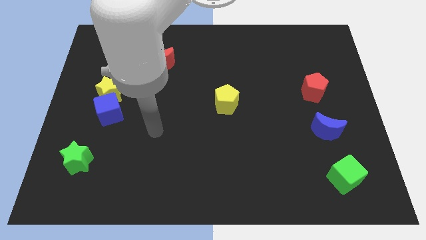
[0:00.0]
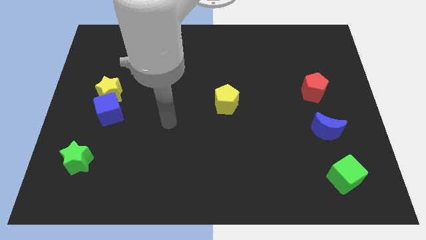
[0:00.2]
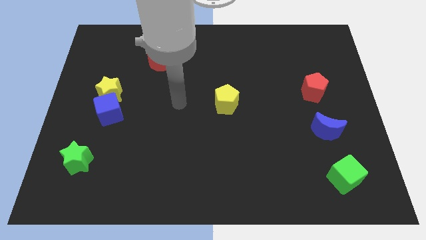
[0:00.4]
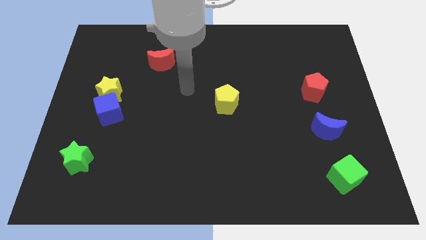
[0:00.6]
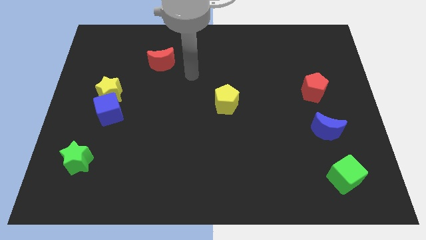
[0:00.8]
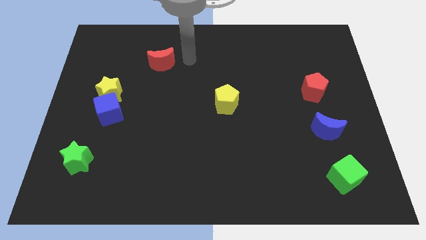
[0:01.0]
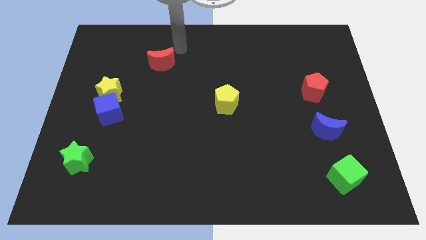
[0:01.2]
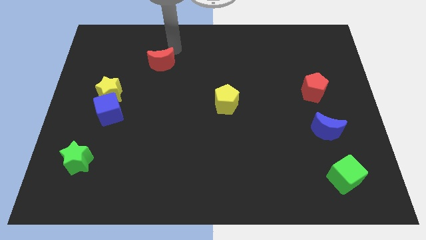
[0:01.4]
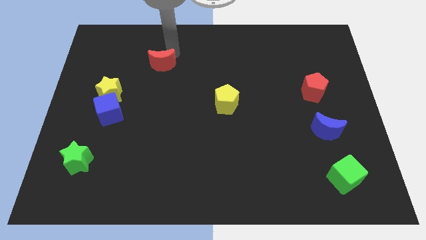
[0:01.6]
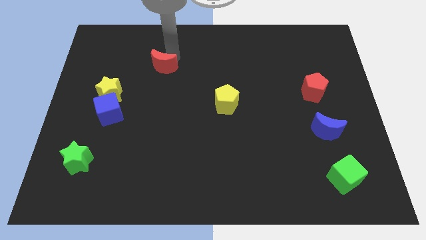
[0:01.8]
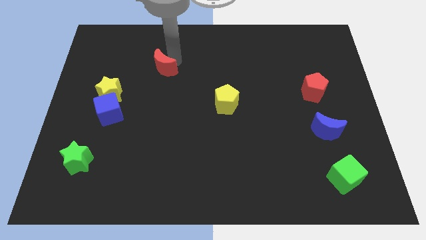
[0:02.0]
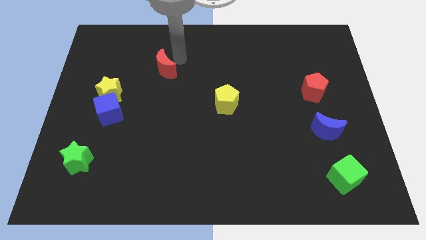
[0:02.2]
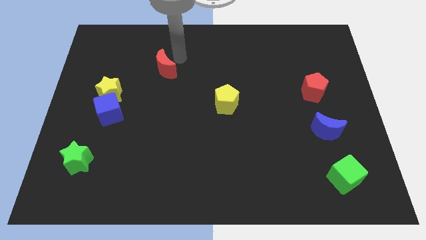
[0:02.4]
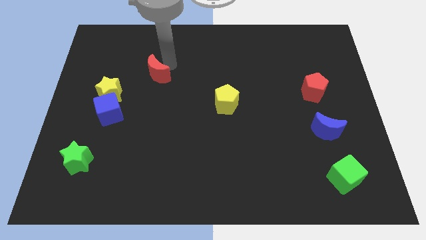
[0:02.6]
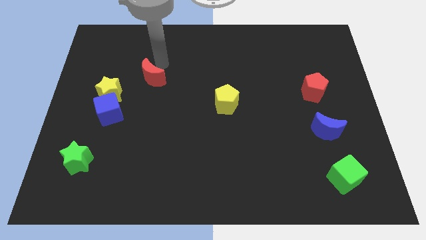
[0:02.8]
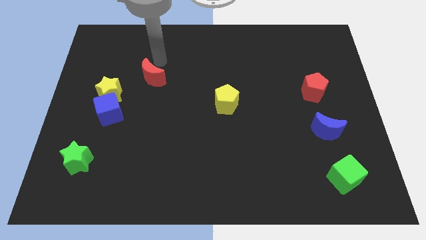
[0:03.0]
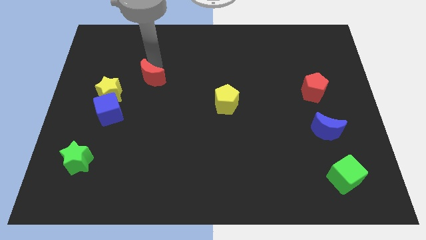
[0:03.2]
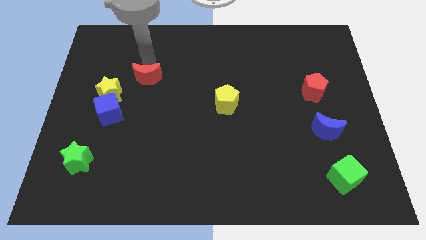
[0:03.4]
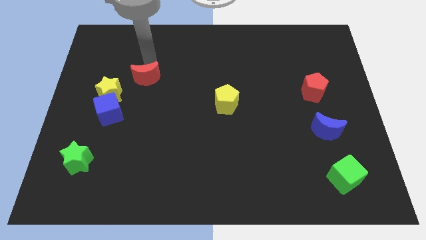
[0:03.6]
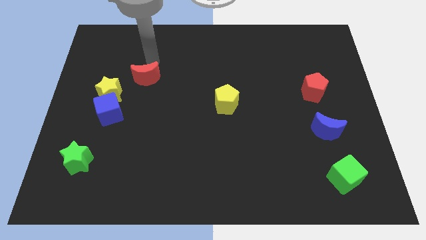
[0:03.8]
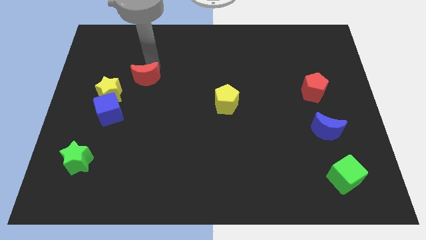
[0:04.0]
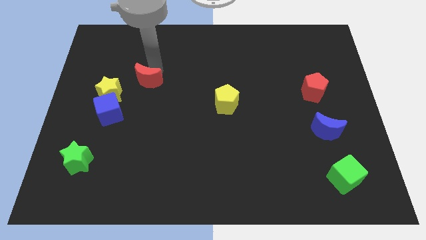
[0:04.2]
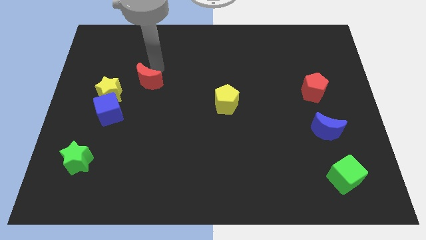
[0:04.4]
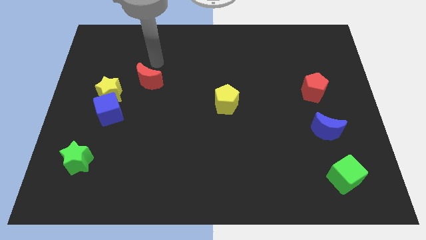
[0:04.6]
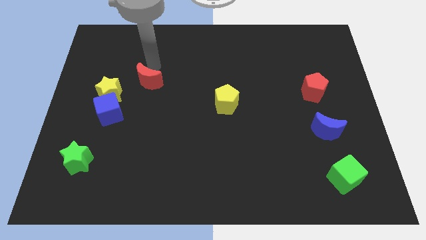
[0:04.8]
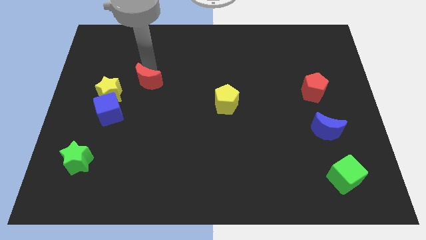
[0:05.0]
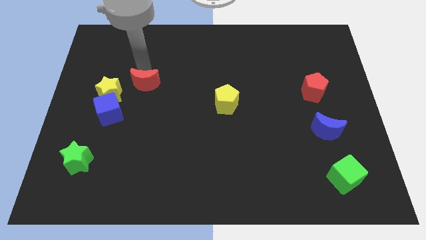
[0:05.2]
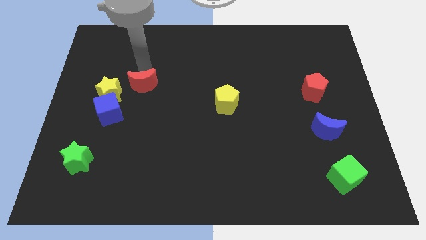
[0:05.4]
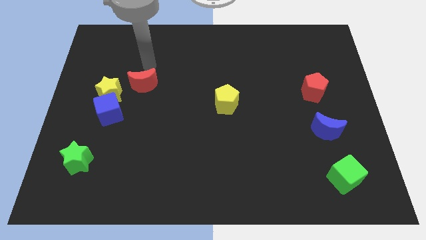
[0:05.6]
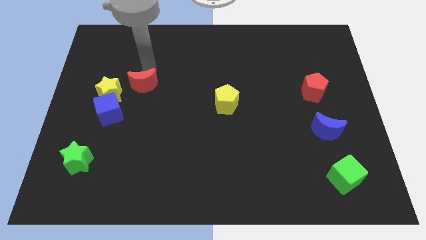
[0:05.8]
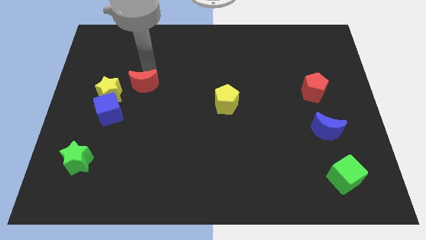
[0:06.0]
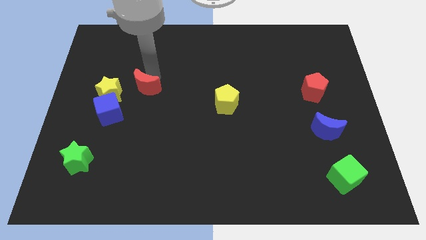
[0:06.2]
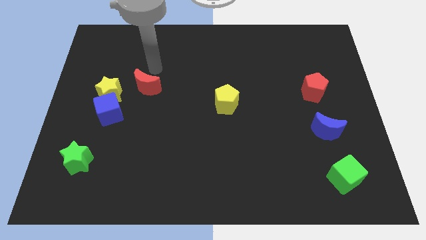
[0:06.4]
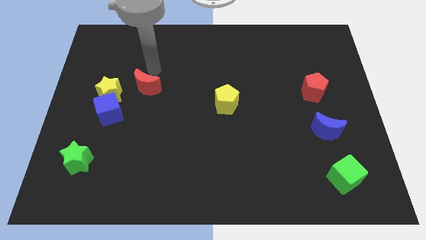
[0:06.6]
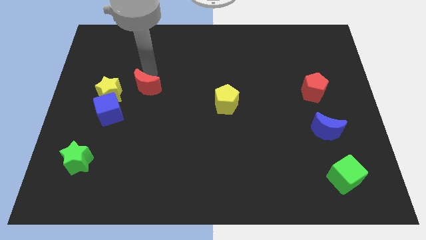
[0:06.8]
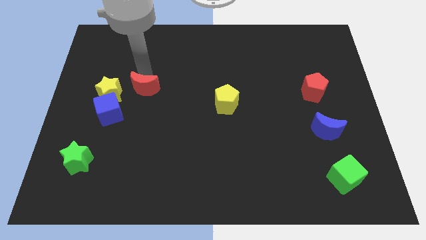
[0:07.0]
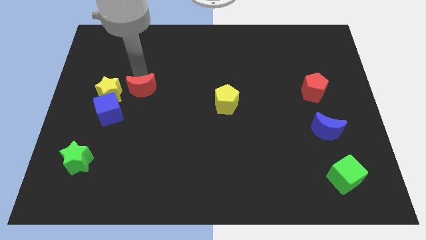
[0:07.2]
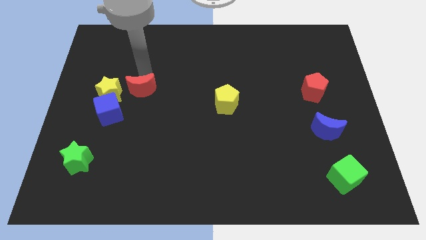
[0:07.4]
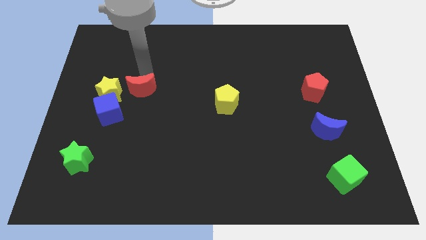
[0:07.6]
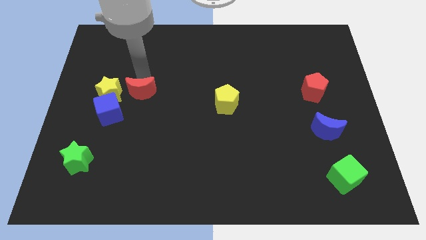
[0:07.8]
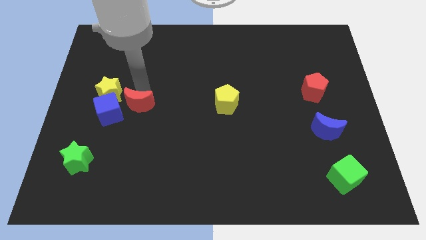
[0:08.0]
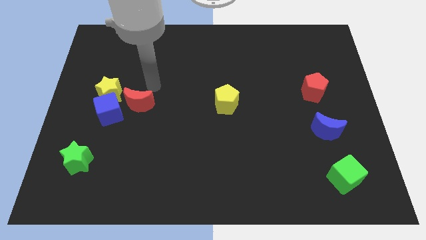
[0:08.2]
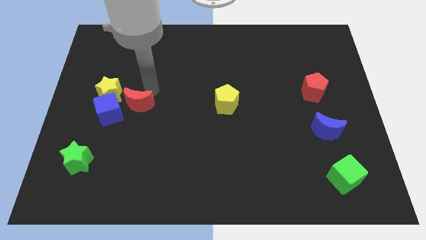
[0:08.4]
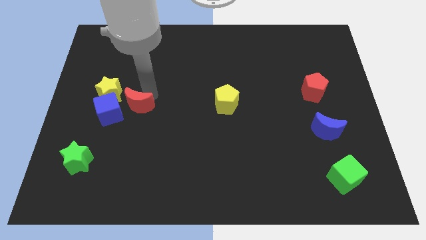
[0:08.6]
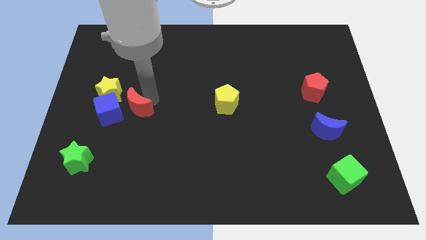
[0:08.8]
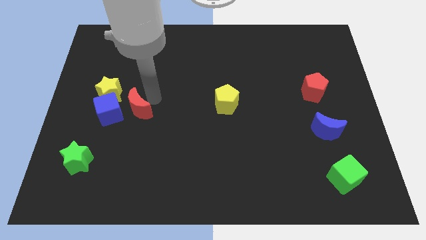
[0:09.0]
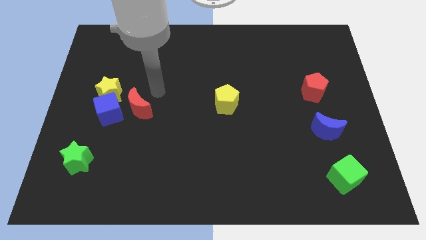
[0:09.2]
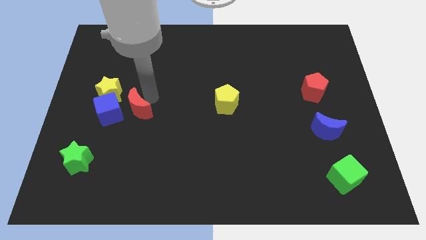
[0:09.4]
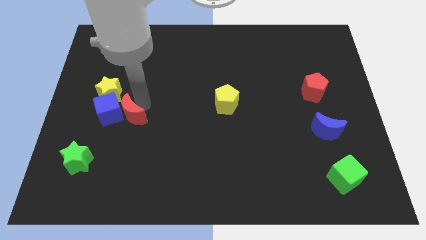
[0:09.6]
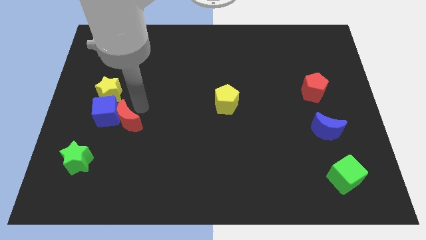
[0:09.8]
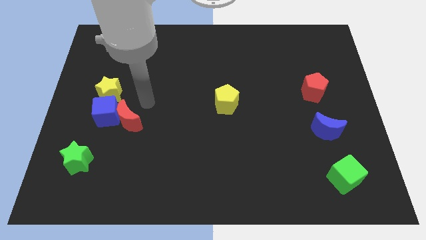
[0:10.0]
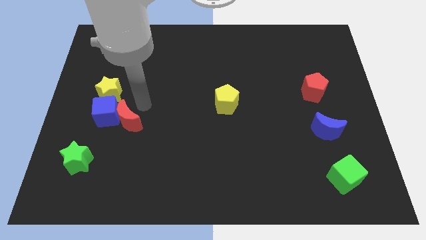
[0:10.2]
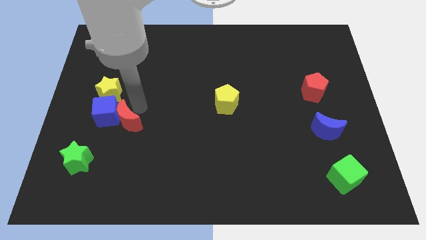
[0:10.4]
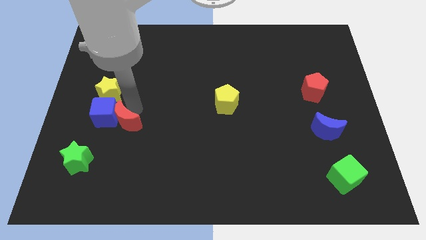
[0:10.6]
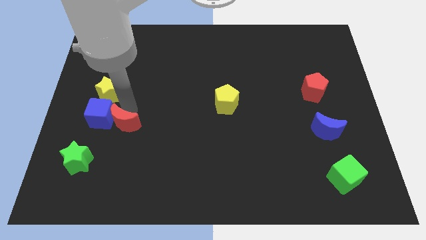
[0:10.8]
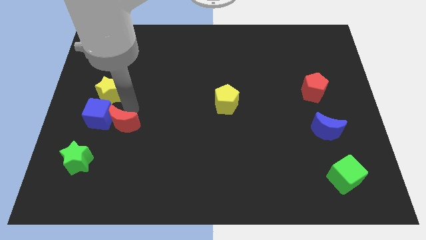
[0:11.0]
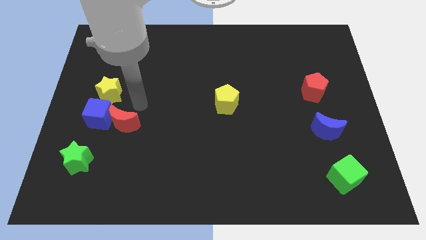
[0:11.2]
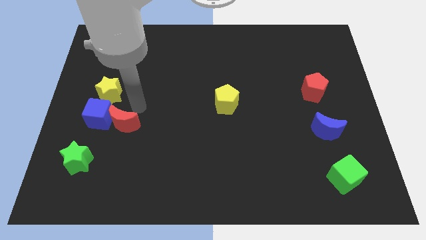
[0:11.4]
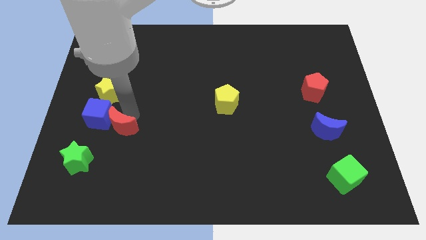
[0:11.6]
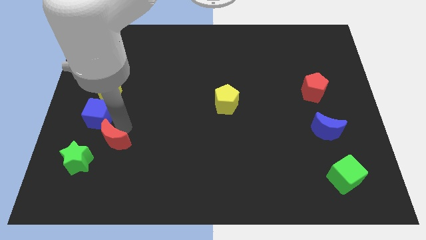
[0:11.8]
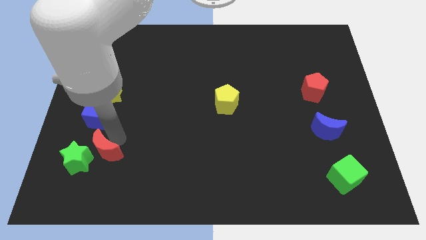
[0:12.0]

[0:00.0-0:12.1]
put the red moon to the green star

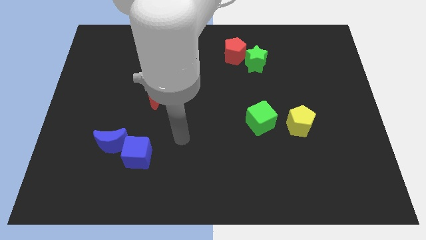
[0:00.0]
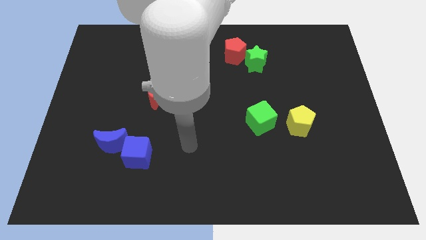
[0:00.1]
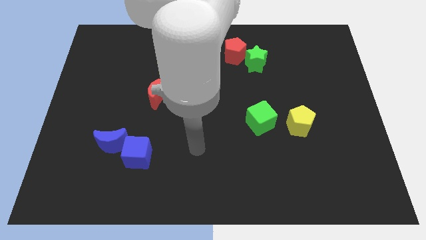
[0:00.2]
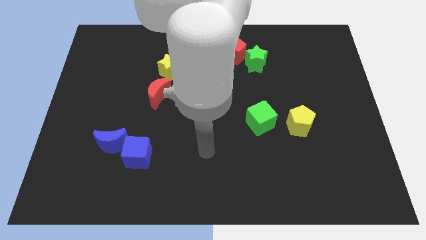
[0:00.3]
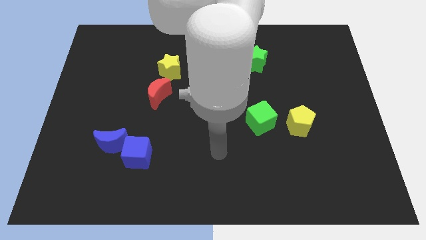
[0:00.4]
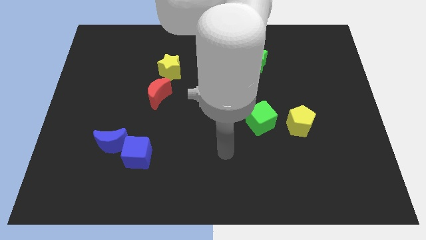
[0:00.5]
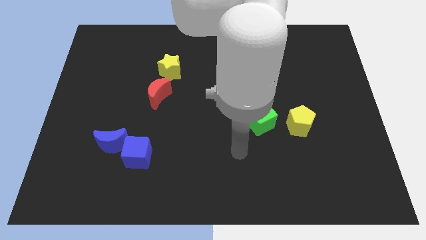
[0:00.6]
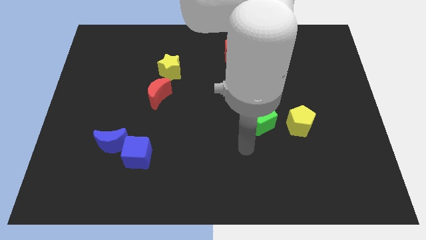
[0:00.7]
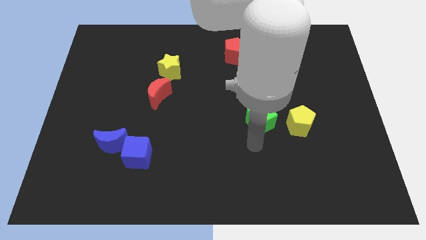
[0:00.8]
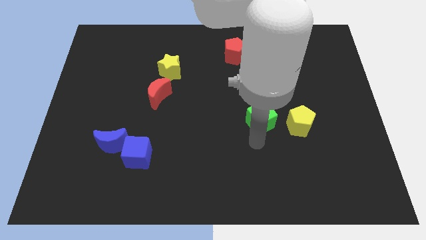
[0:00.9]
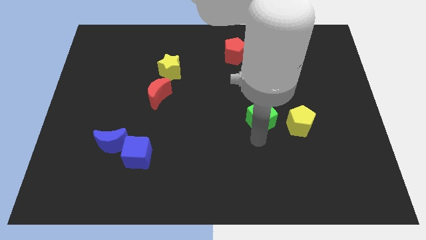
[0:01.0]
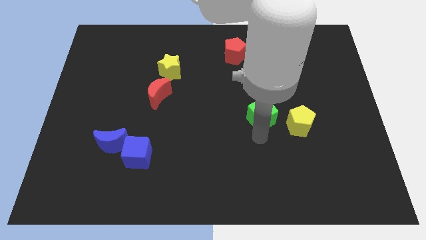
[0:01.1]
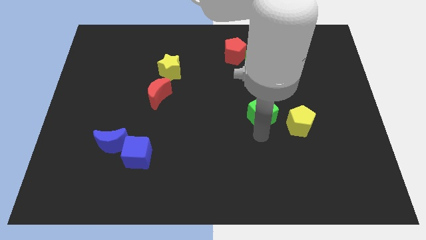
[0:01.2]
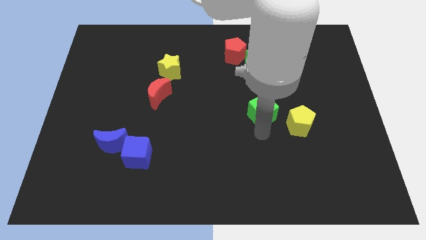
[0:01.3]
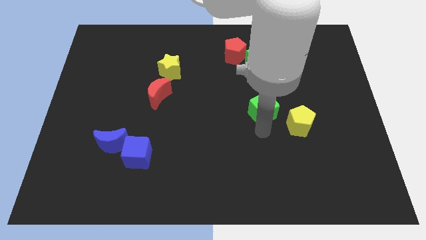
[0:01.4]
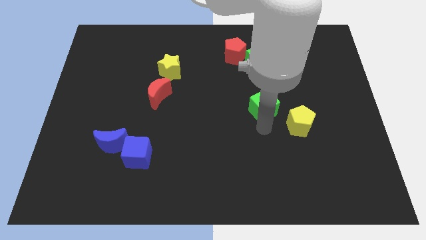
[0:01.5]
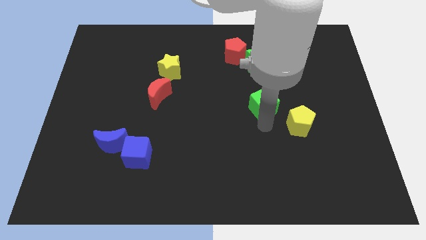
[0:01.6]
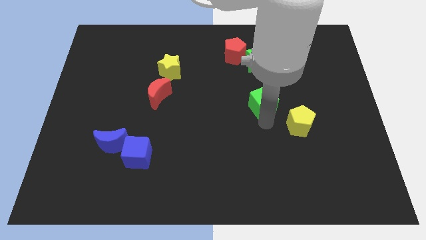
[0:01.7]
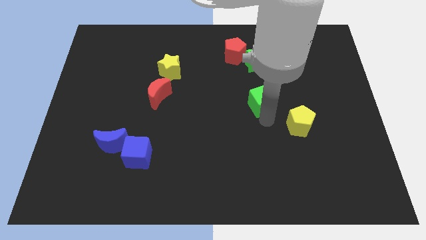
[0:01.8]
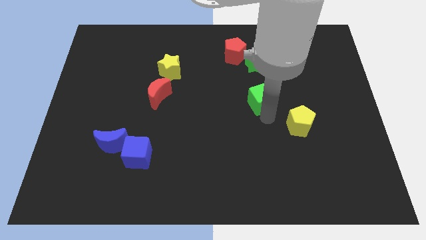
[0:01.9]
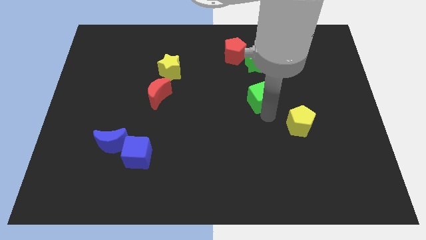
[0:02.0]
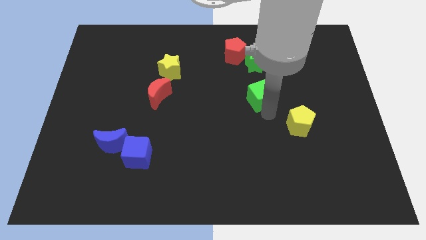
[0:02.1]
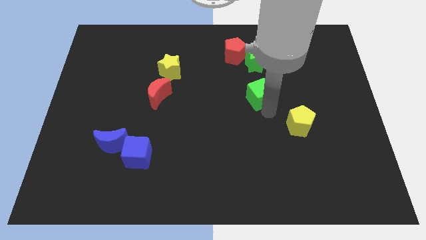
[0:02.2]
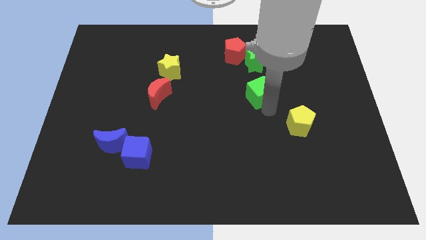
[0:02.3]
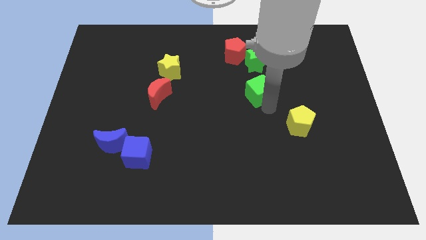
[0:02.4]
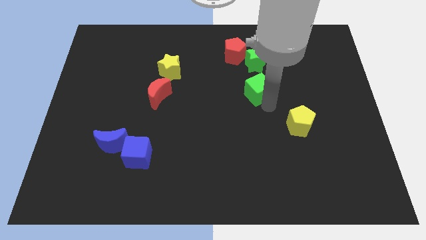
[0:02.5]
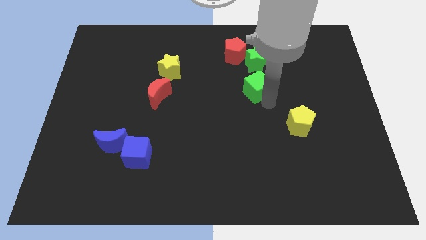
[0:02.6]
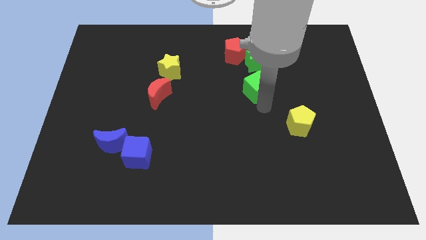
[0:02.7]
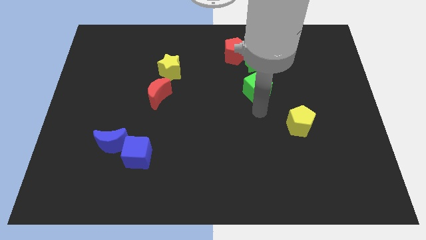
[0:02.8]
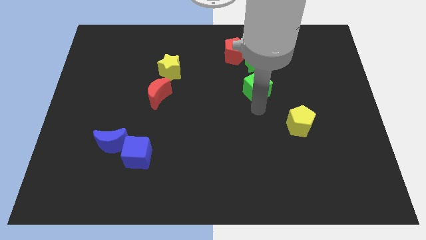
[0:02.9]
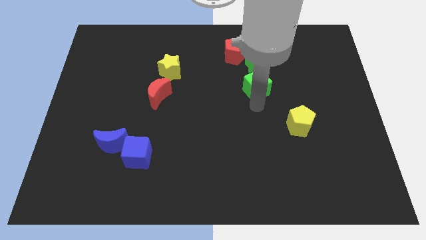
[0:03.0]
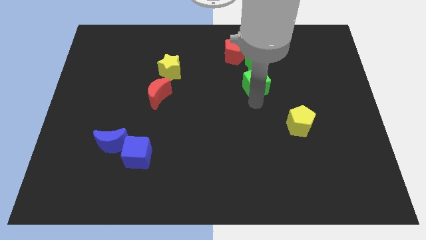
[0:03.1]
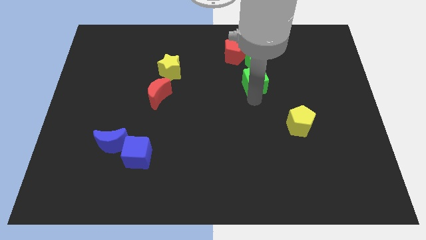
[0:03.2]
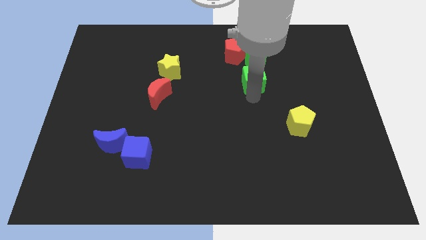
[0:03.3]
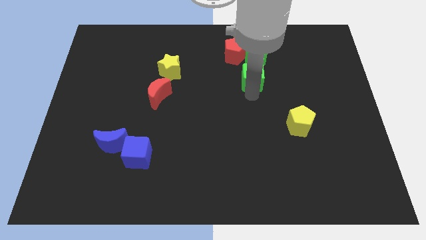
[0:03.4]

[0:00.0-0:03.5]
slide the green cube towards the green star
